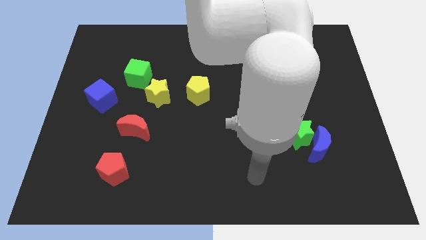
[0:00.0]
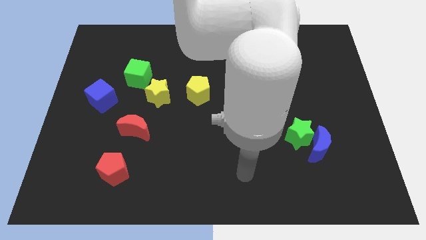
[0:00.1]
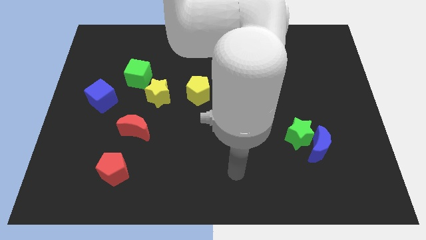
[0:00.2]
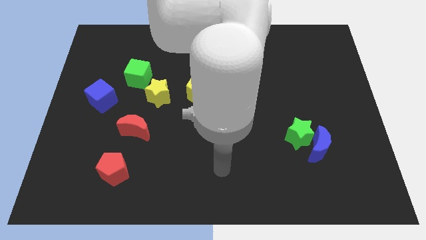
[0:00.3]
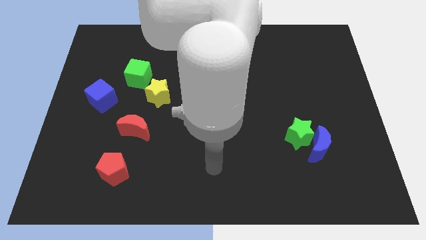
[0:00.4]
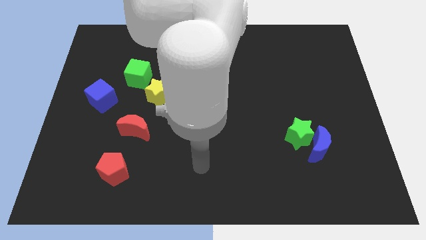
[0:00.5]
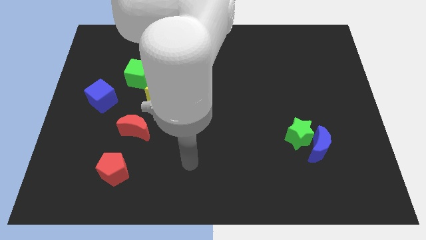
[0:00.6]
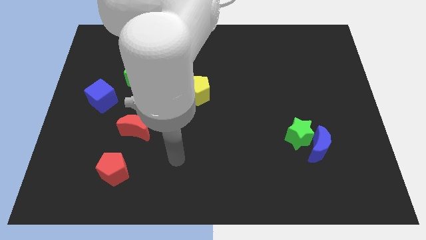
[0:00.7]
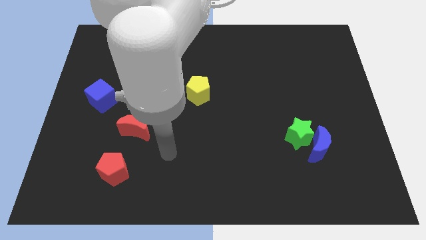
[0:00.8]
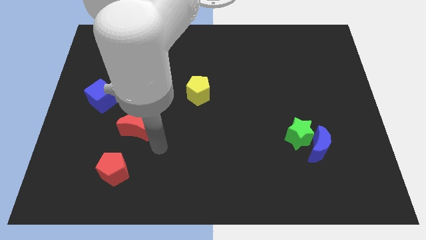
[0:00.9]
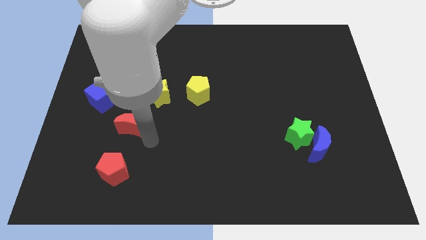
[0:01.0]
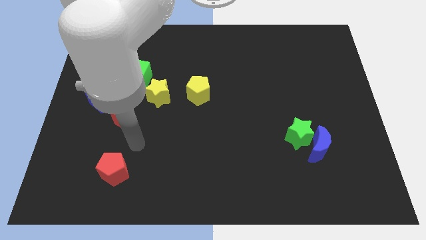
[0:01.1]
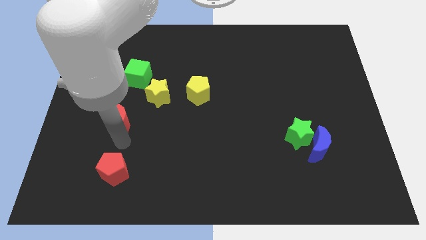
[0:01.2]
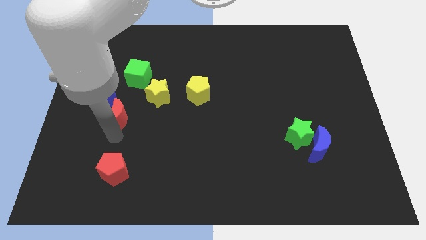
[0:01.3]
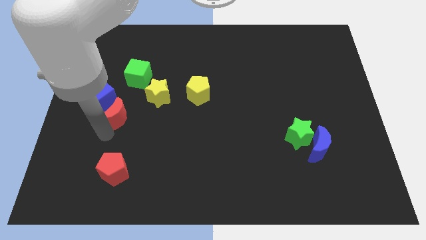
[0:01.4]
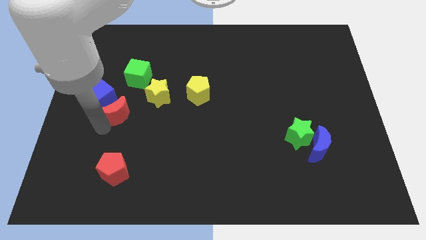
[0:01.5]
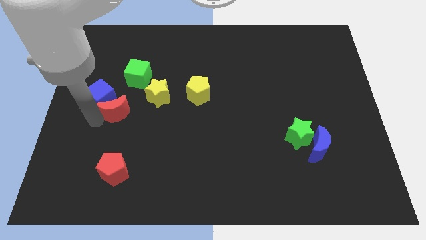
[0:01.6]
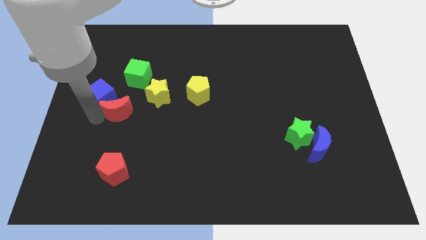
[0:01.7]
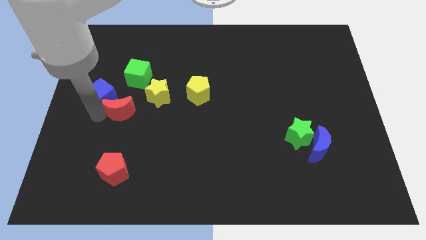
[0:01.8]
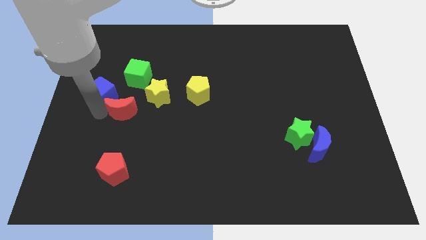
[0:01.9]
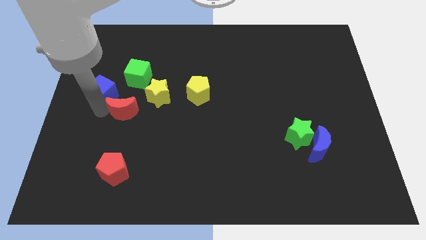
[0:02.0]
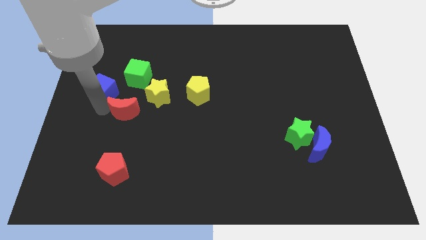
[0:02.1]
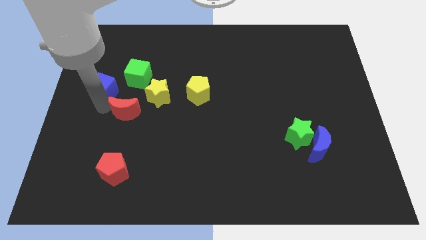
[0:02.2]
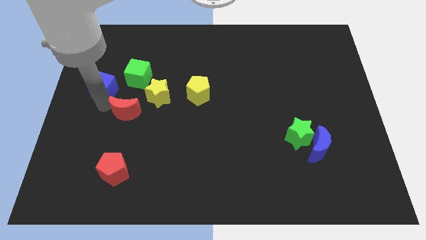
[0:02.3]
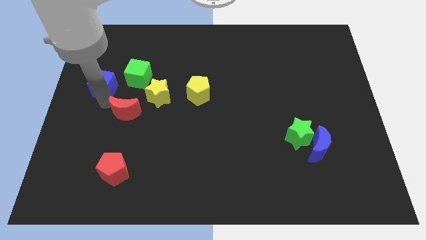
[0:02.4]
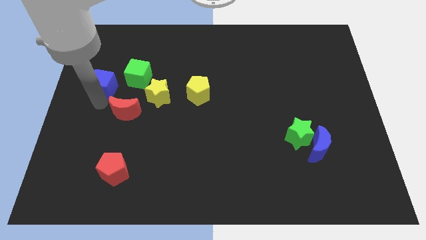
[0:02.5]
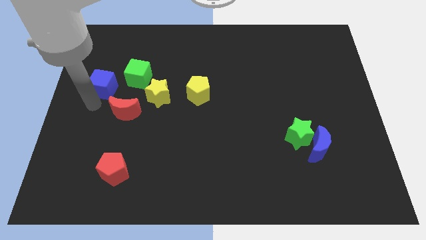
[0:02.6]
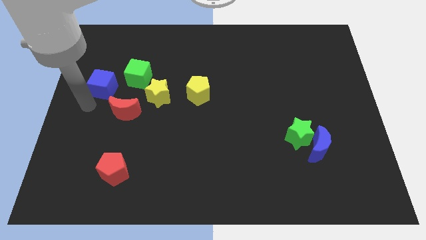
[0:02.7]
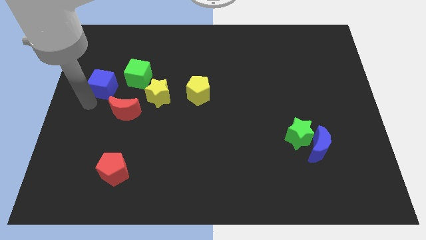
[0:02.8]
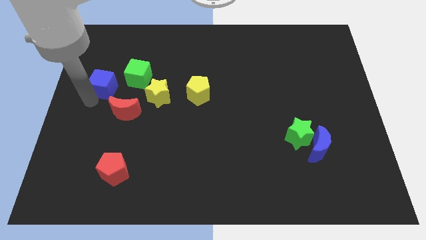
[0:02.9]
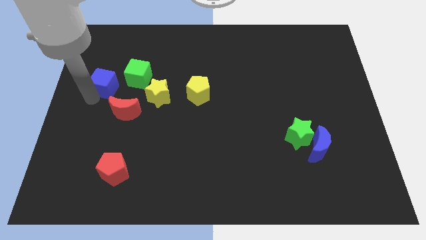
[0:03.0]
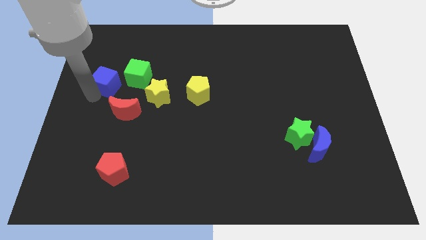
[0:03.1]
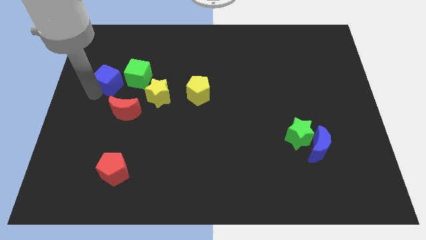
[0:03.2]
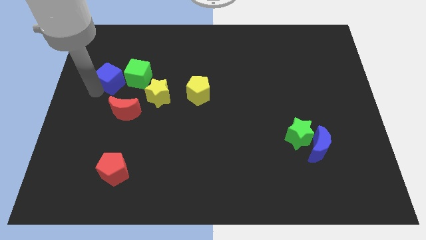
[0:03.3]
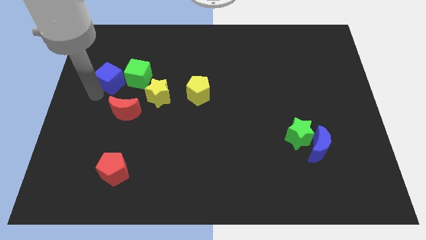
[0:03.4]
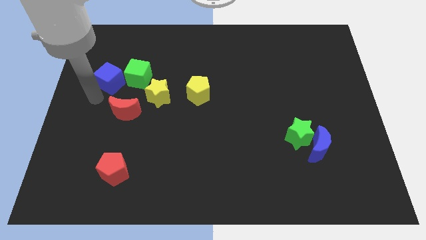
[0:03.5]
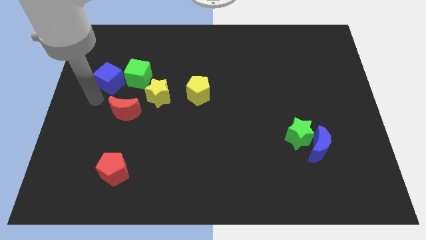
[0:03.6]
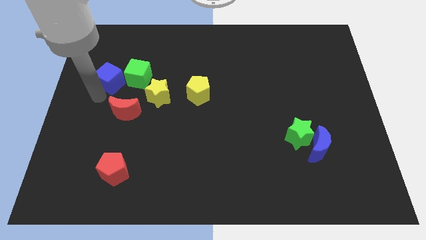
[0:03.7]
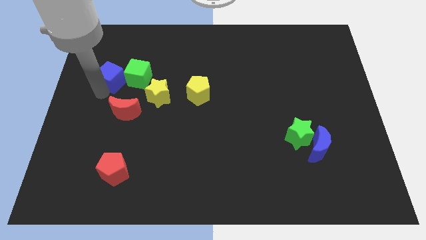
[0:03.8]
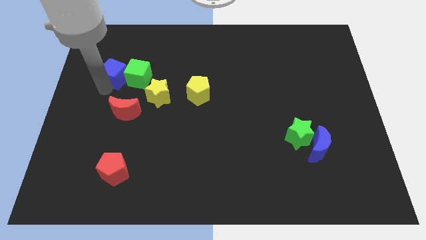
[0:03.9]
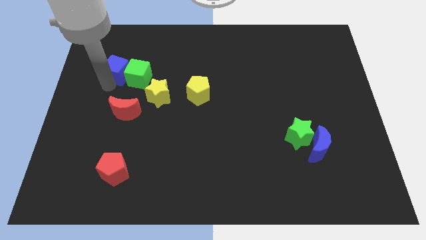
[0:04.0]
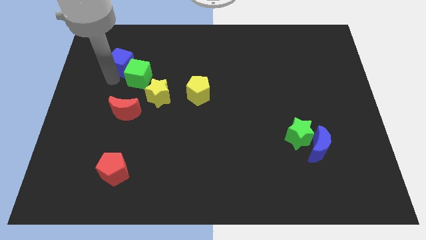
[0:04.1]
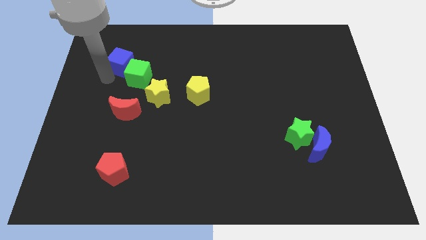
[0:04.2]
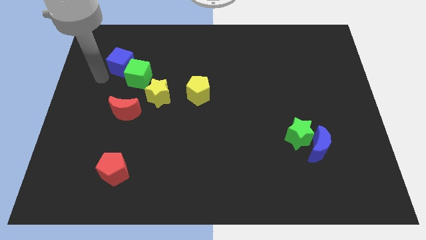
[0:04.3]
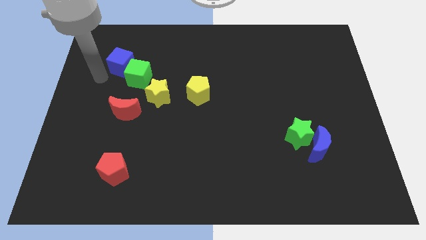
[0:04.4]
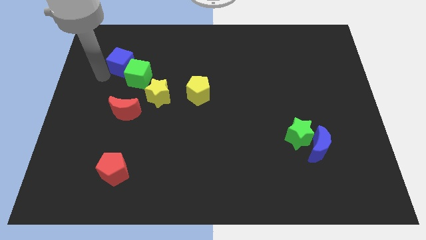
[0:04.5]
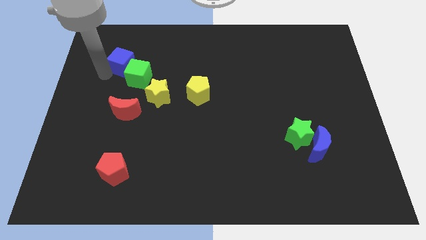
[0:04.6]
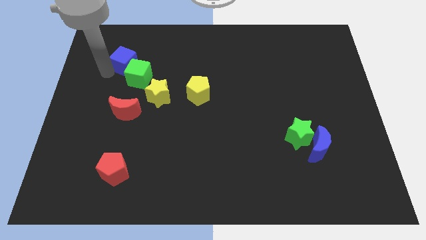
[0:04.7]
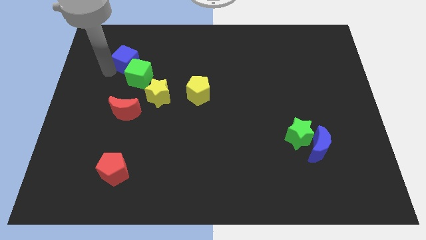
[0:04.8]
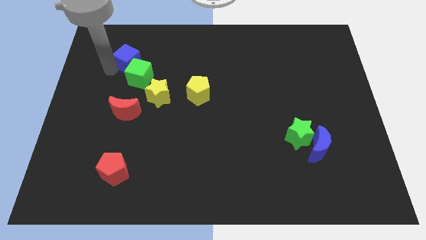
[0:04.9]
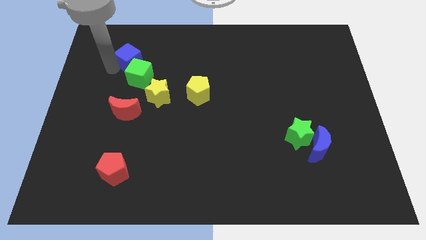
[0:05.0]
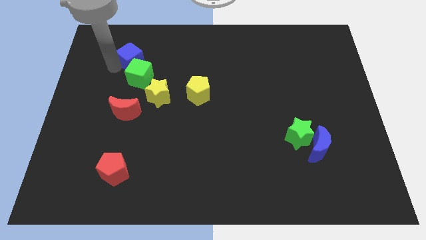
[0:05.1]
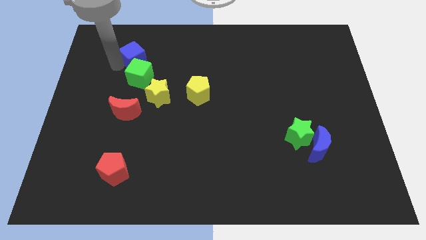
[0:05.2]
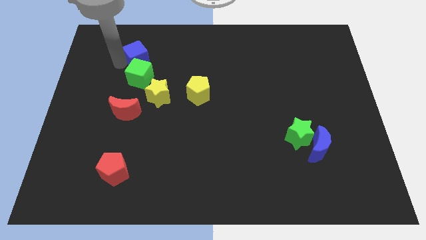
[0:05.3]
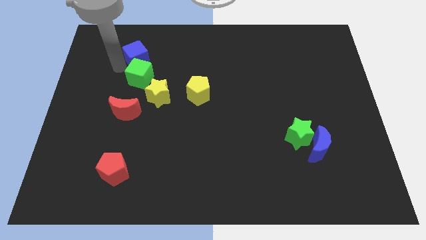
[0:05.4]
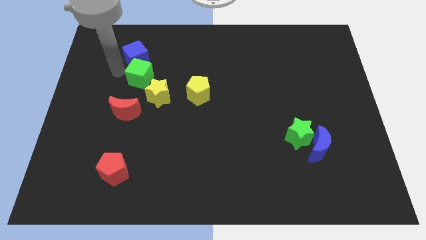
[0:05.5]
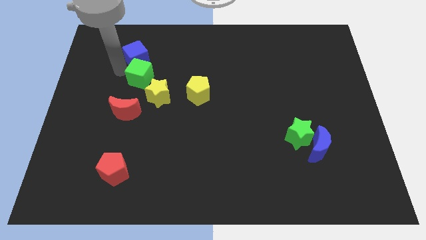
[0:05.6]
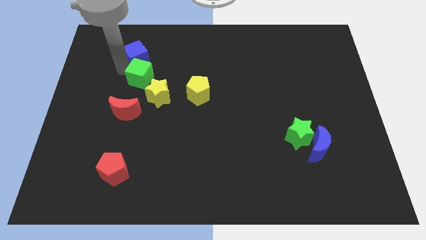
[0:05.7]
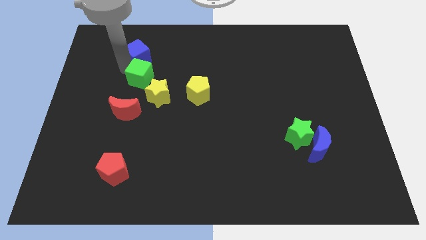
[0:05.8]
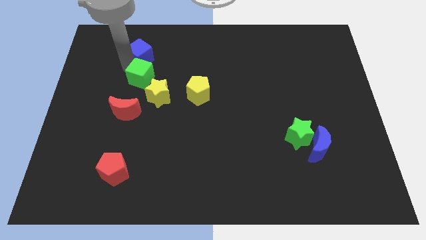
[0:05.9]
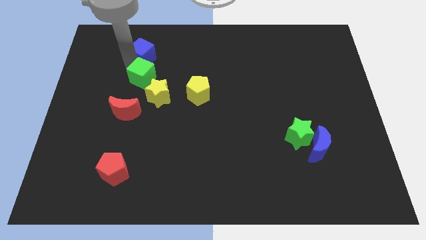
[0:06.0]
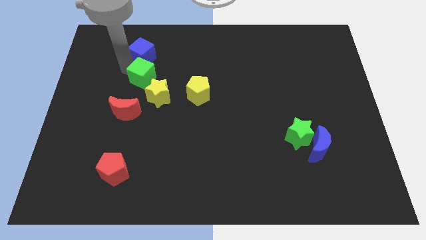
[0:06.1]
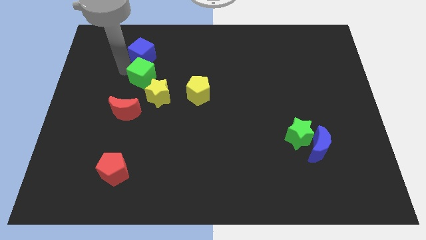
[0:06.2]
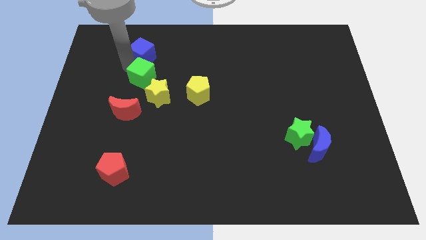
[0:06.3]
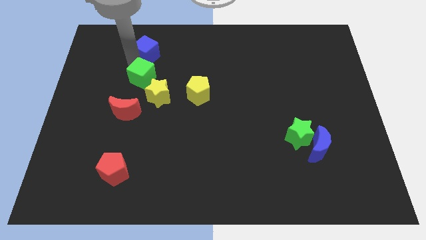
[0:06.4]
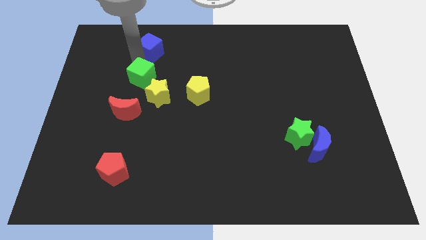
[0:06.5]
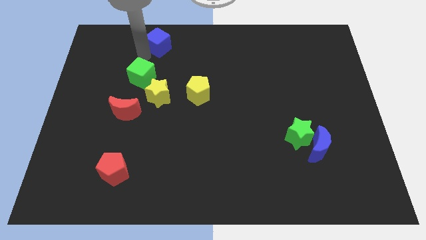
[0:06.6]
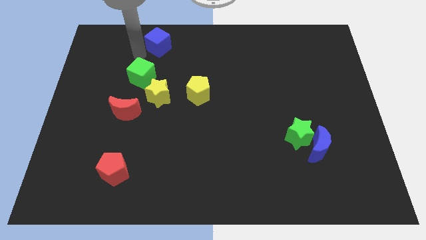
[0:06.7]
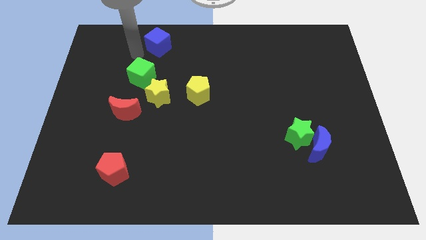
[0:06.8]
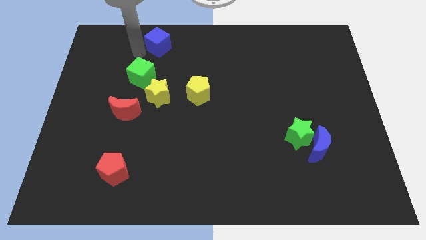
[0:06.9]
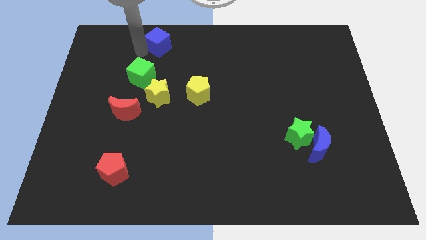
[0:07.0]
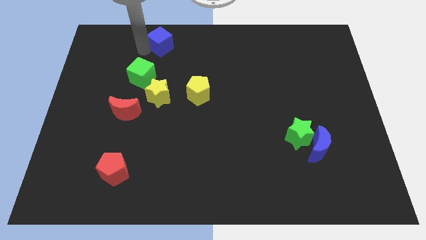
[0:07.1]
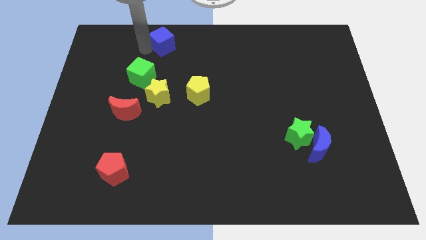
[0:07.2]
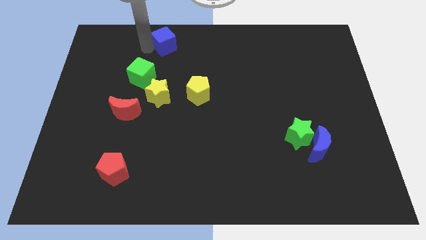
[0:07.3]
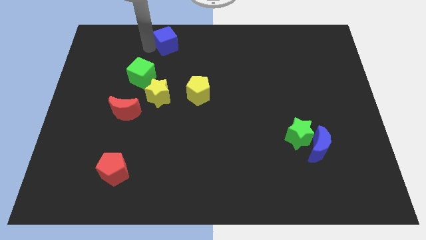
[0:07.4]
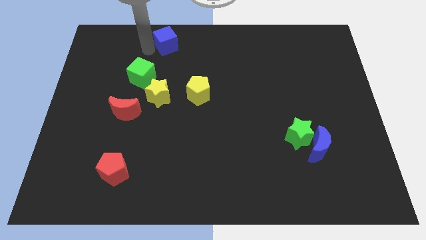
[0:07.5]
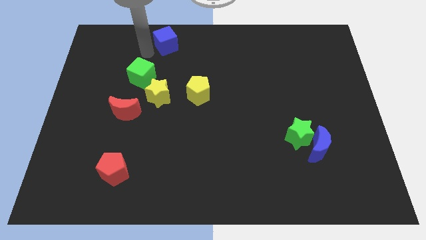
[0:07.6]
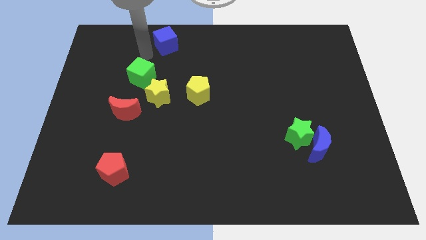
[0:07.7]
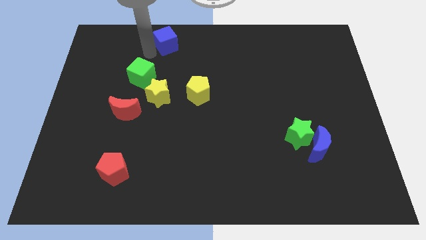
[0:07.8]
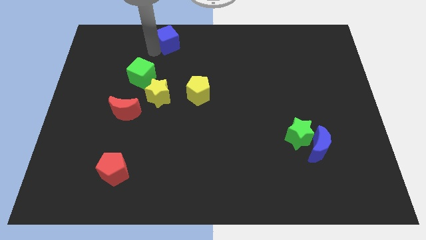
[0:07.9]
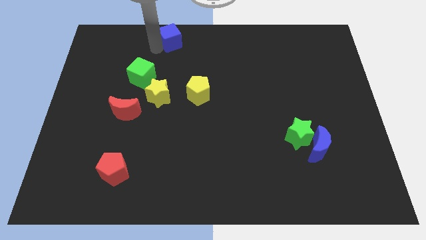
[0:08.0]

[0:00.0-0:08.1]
slide the blue cube to the top side
